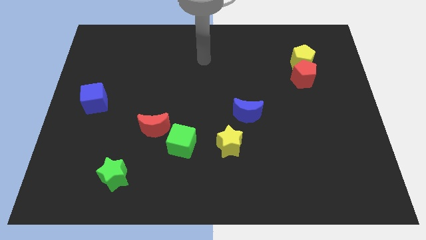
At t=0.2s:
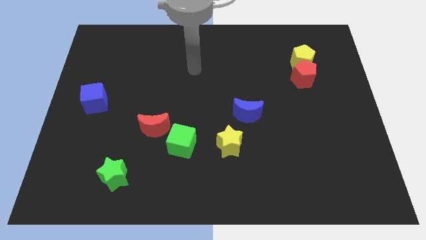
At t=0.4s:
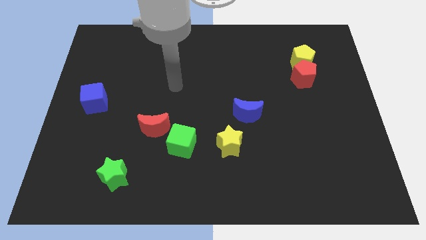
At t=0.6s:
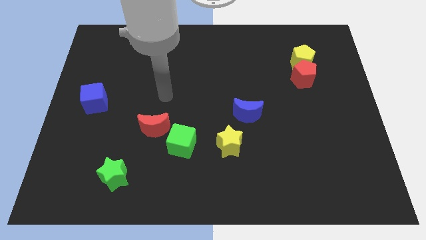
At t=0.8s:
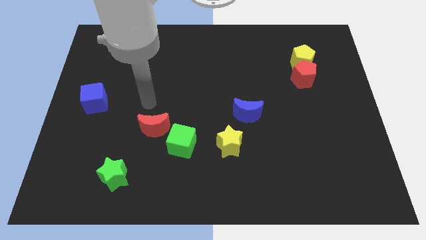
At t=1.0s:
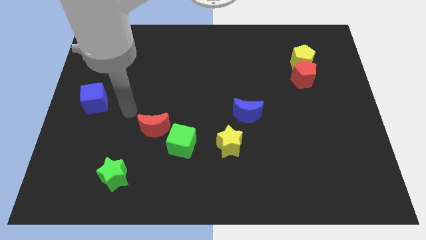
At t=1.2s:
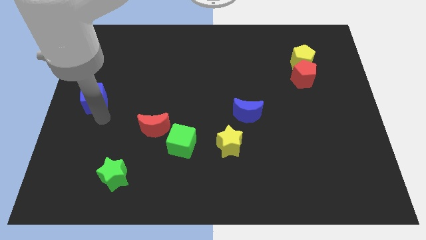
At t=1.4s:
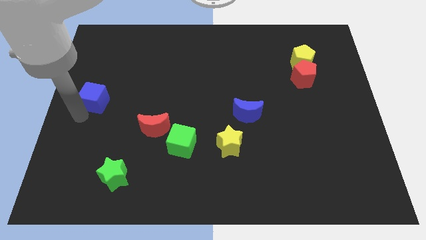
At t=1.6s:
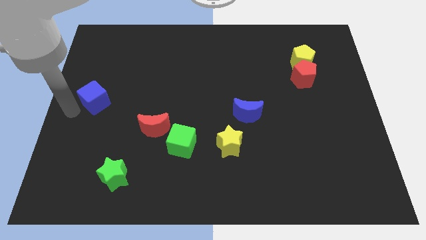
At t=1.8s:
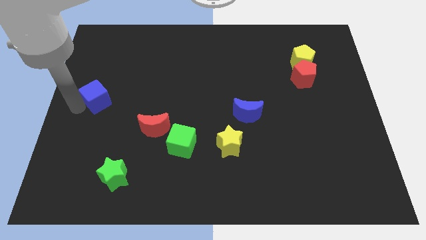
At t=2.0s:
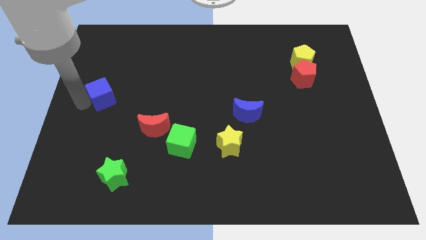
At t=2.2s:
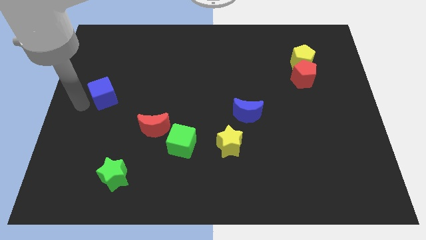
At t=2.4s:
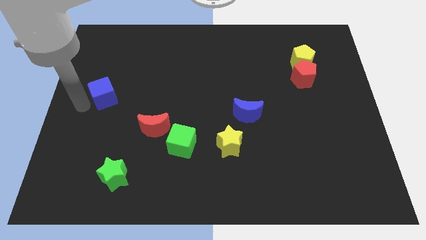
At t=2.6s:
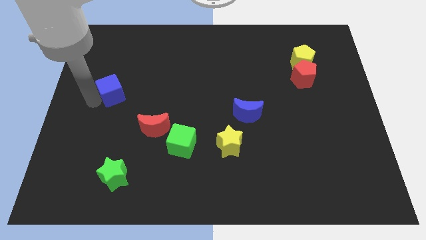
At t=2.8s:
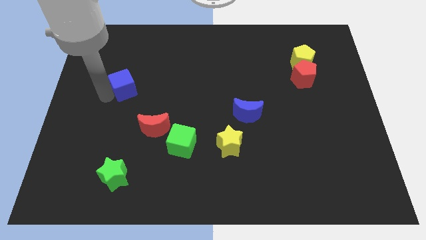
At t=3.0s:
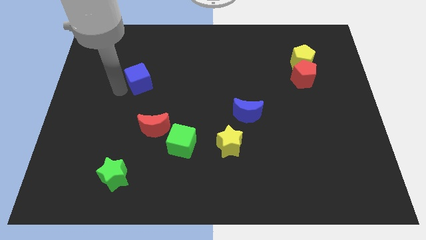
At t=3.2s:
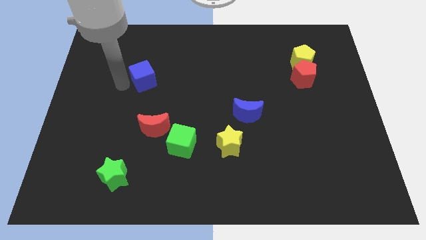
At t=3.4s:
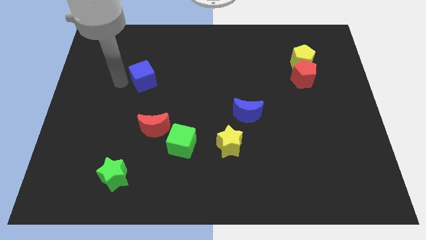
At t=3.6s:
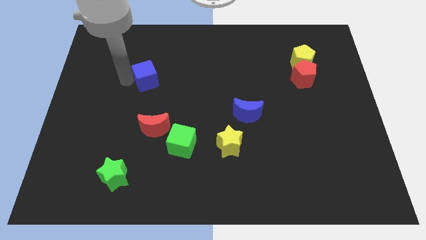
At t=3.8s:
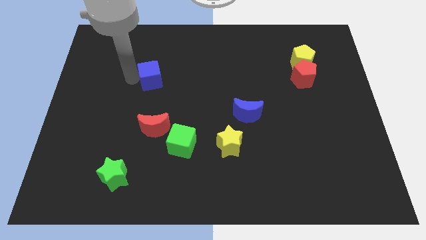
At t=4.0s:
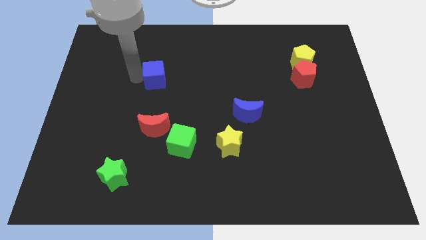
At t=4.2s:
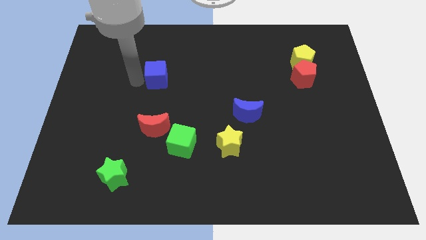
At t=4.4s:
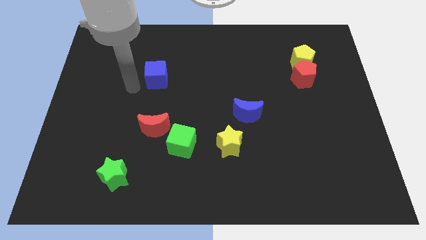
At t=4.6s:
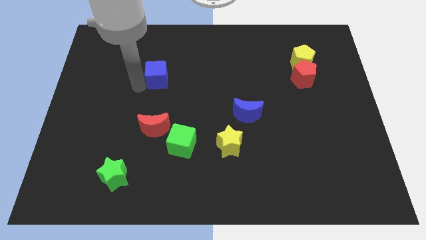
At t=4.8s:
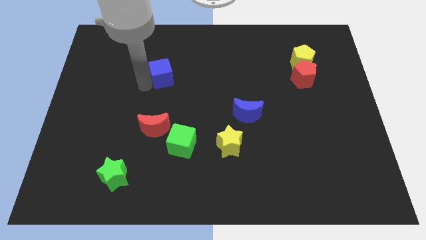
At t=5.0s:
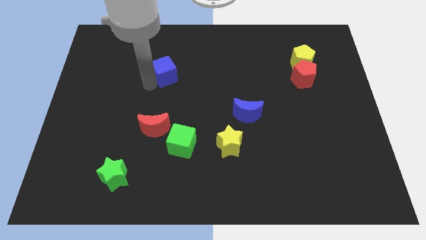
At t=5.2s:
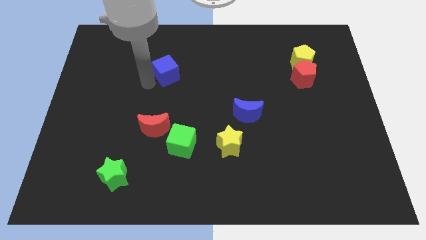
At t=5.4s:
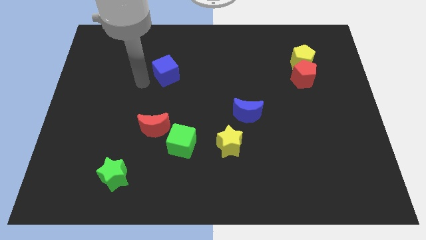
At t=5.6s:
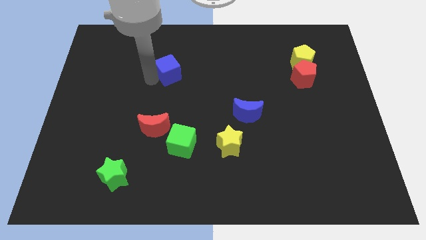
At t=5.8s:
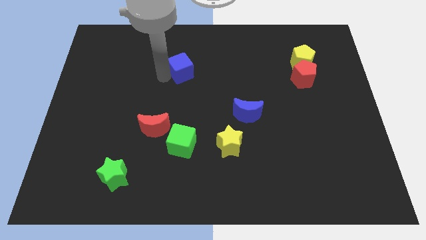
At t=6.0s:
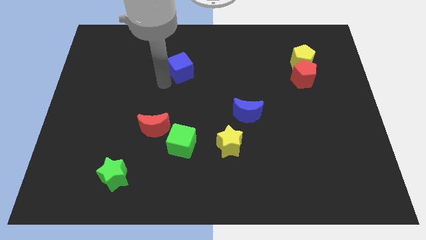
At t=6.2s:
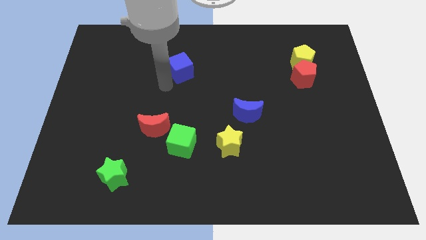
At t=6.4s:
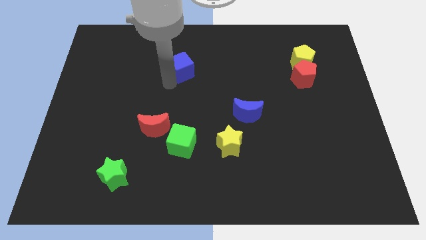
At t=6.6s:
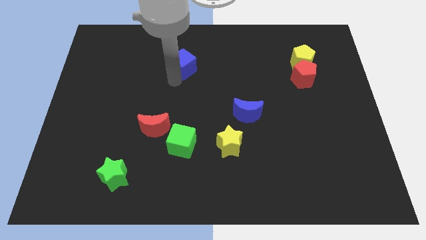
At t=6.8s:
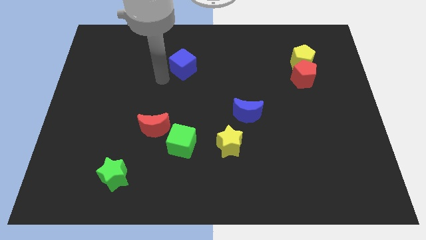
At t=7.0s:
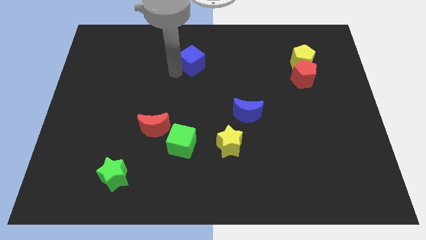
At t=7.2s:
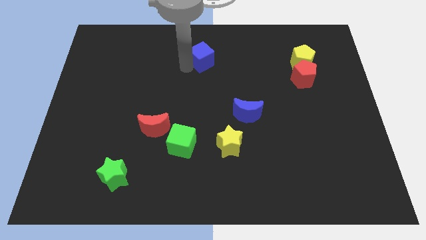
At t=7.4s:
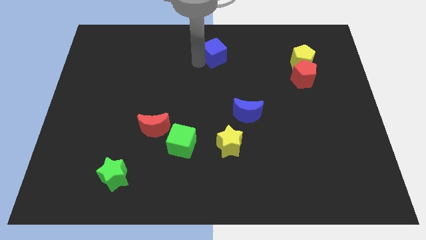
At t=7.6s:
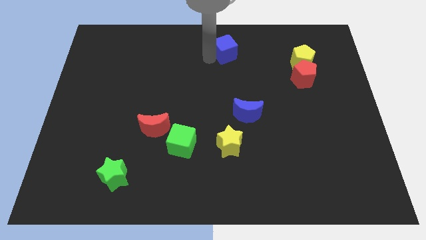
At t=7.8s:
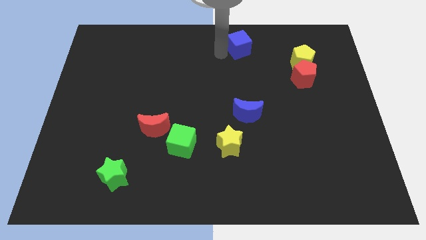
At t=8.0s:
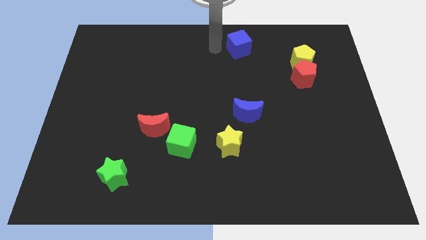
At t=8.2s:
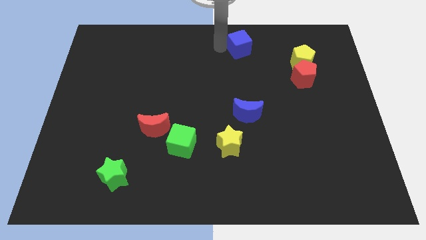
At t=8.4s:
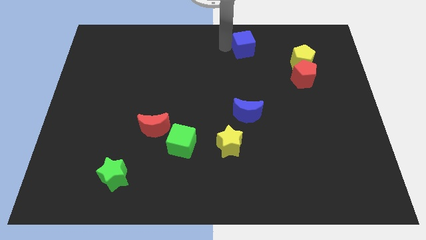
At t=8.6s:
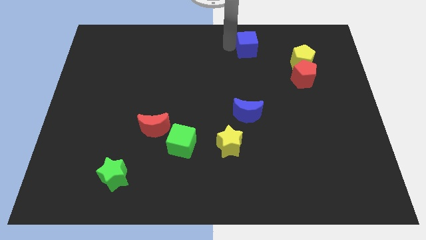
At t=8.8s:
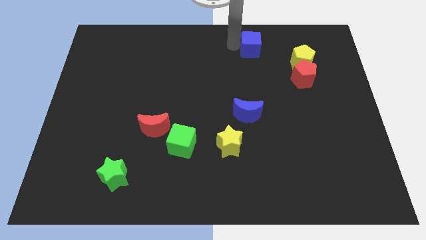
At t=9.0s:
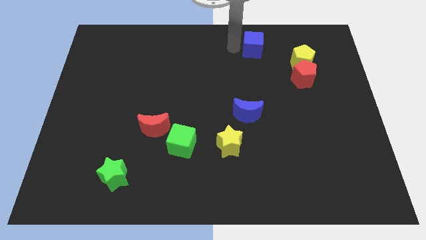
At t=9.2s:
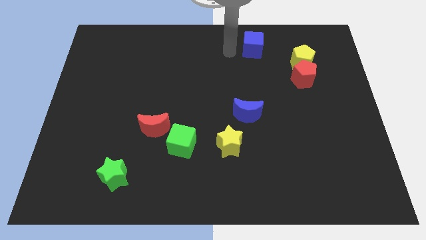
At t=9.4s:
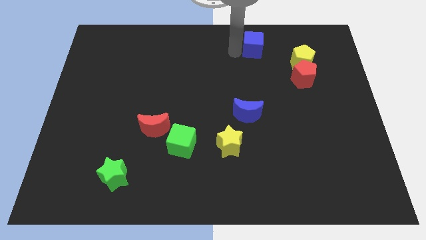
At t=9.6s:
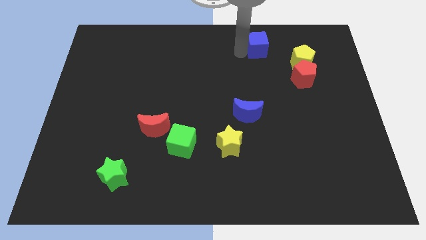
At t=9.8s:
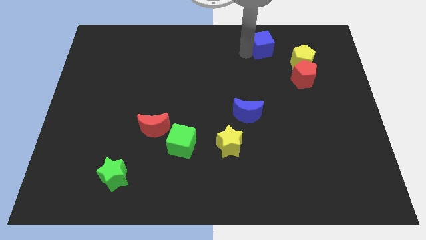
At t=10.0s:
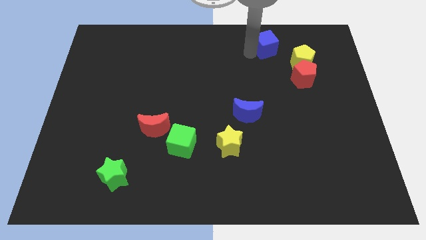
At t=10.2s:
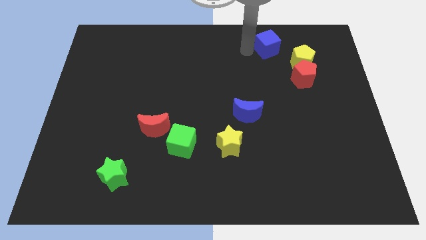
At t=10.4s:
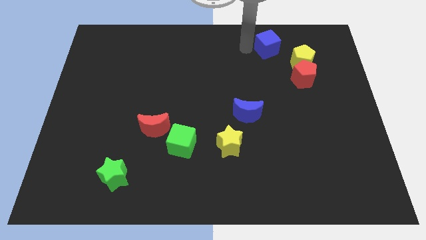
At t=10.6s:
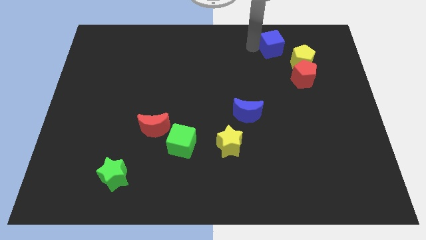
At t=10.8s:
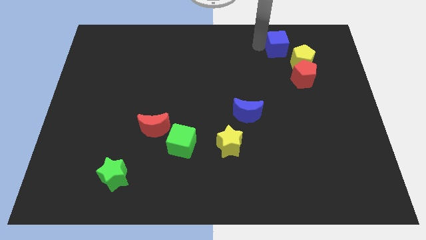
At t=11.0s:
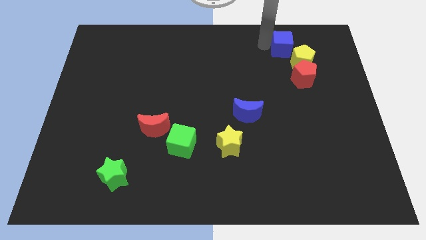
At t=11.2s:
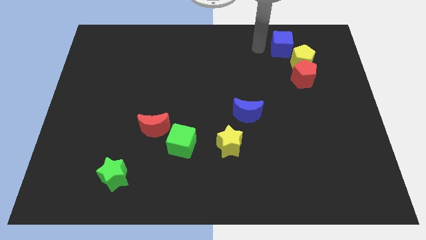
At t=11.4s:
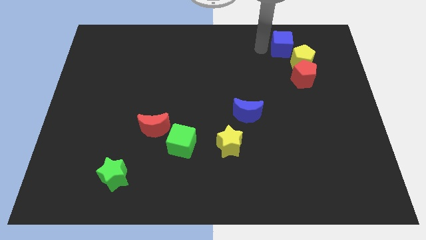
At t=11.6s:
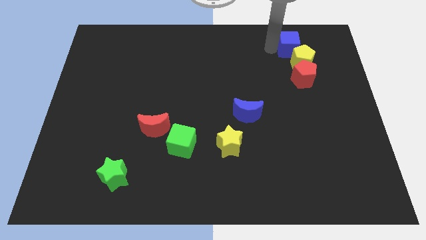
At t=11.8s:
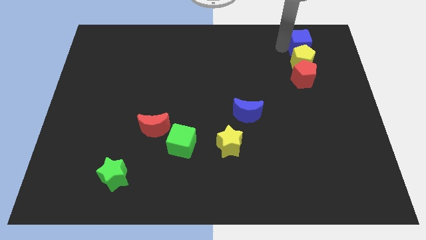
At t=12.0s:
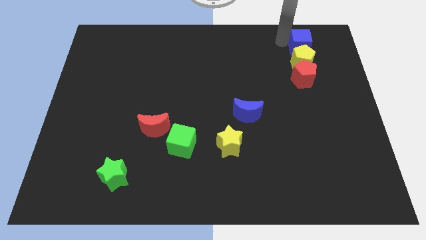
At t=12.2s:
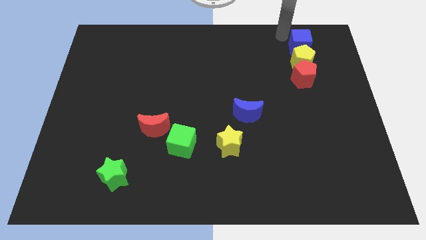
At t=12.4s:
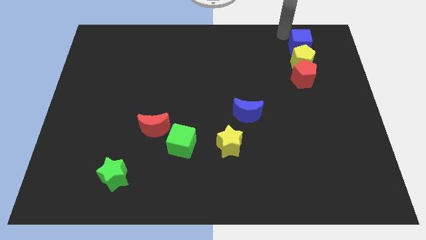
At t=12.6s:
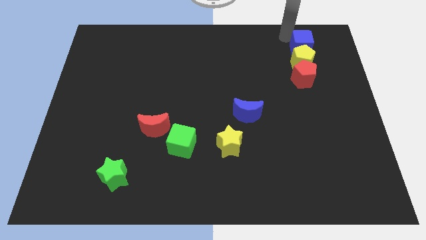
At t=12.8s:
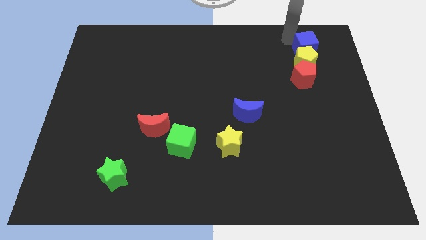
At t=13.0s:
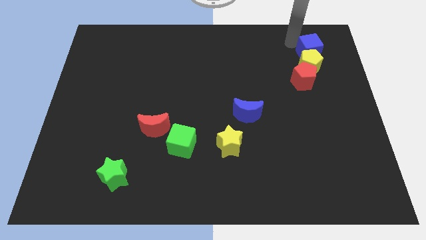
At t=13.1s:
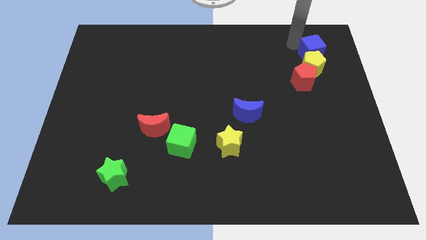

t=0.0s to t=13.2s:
move the blue cube diagonally up and to the right of the red pentagon
